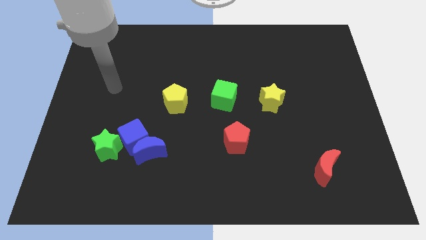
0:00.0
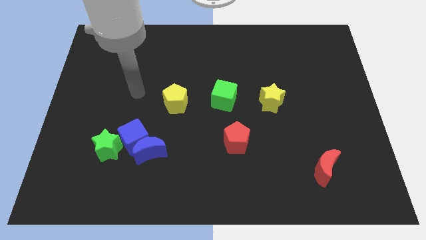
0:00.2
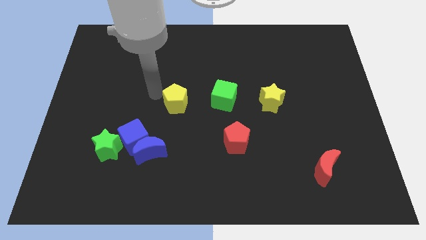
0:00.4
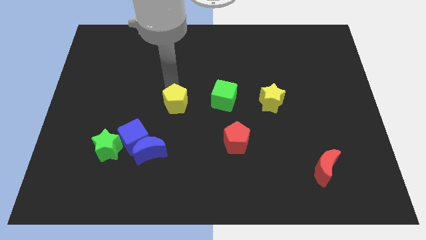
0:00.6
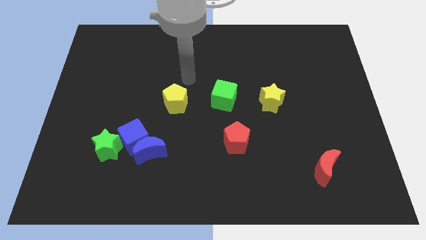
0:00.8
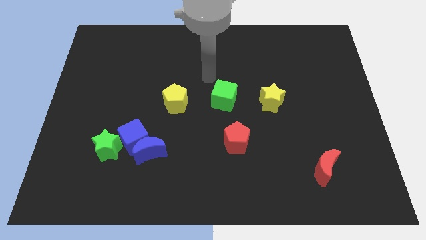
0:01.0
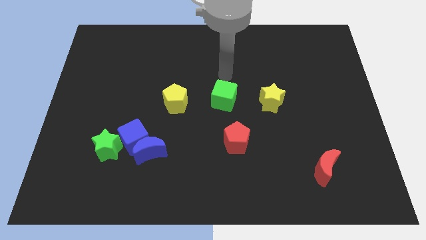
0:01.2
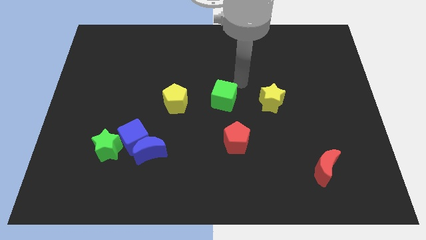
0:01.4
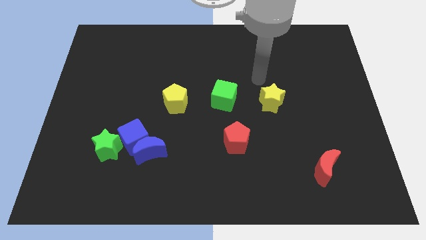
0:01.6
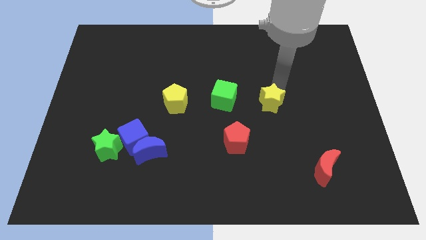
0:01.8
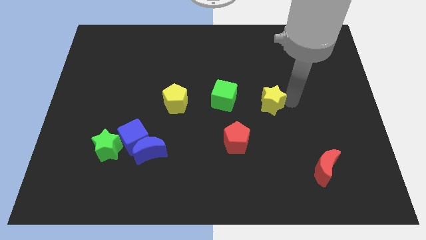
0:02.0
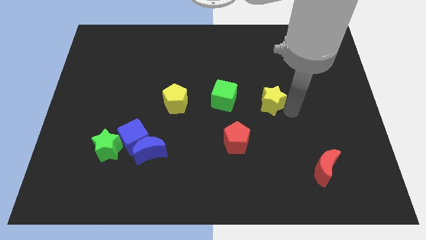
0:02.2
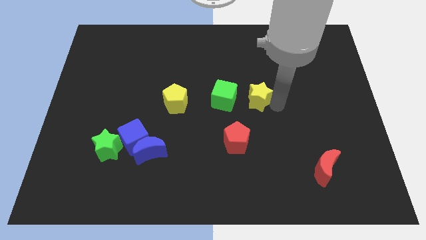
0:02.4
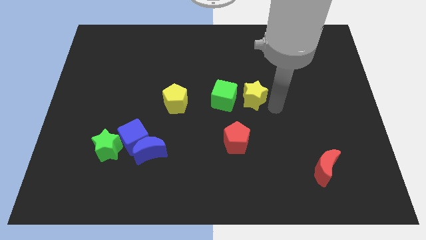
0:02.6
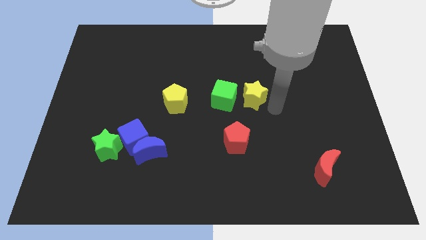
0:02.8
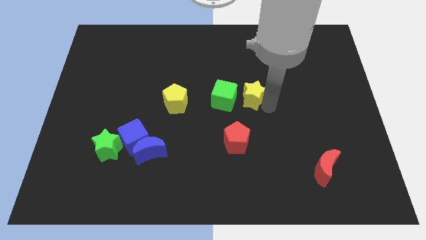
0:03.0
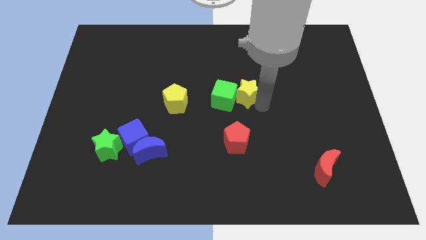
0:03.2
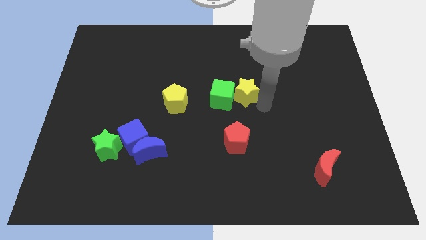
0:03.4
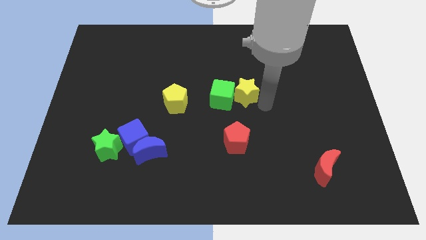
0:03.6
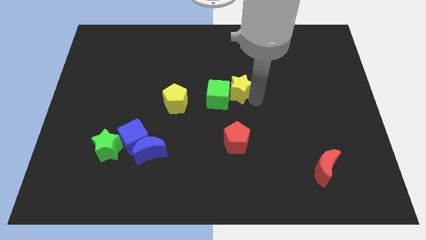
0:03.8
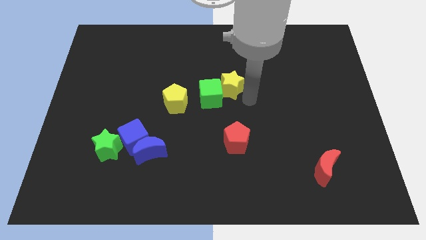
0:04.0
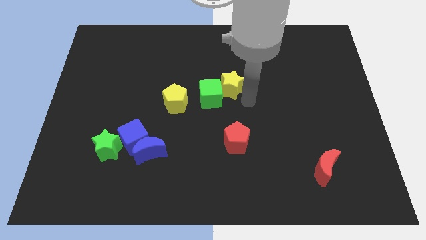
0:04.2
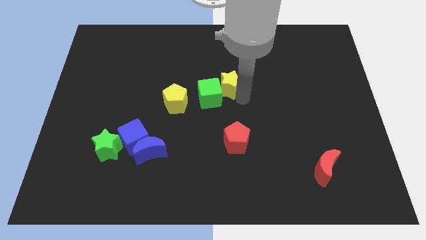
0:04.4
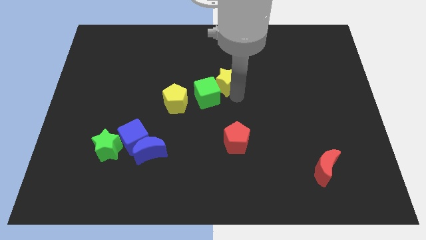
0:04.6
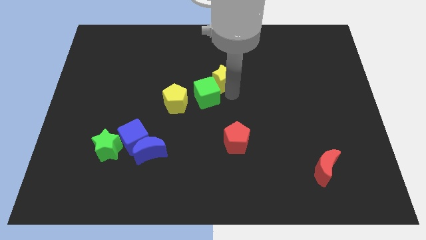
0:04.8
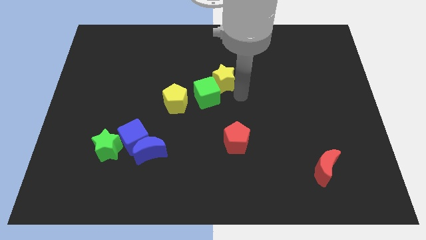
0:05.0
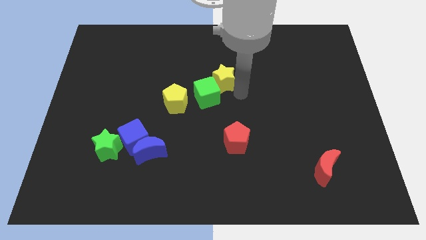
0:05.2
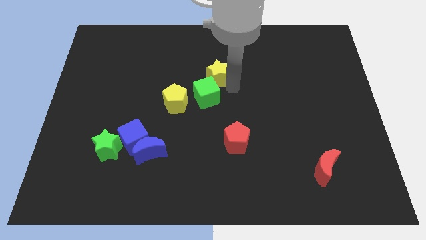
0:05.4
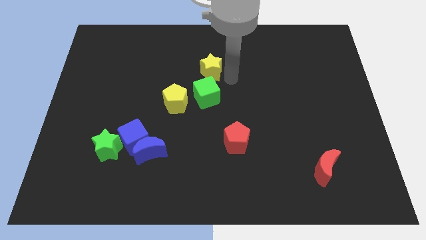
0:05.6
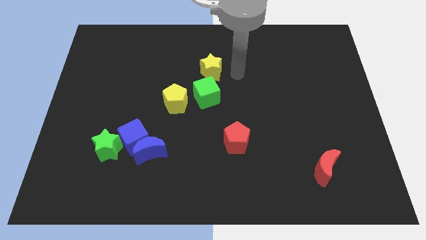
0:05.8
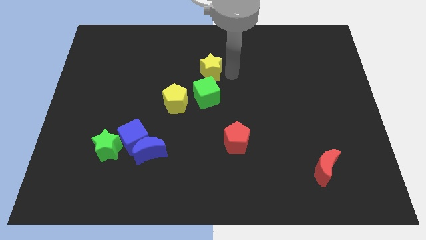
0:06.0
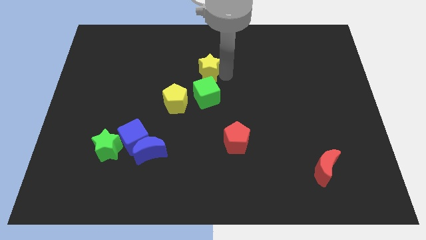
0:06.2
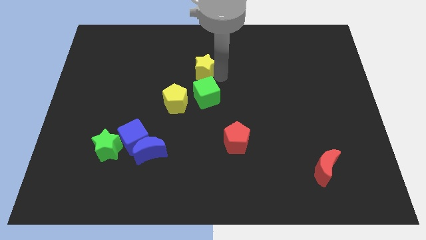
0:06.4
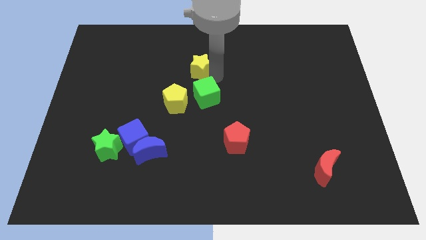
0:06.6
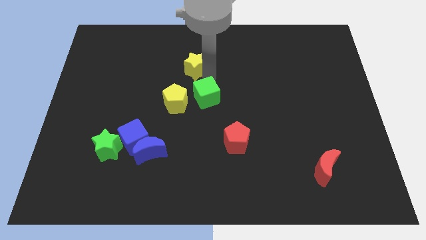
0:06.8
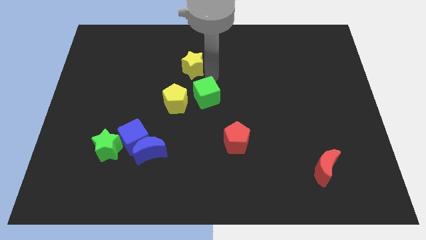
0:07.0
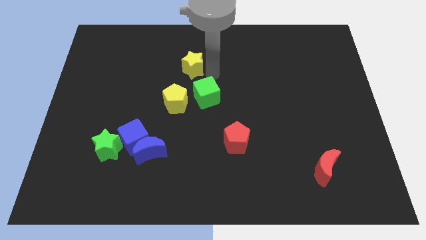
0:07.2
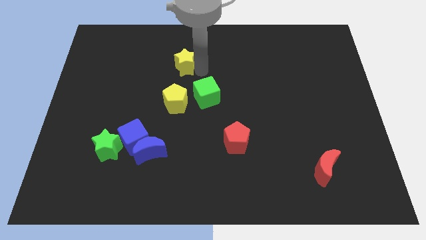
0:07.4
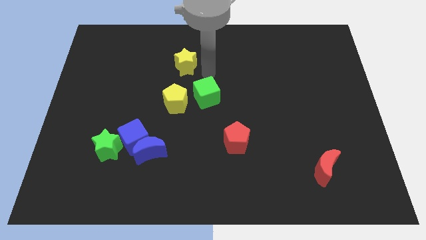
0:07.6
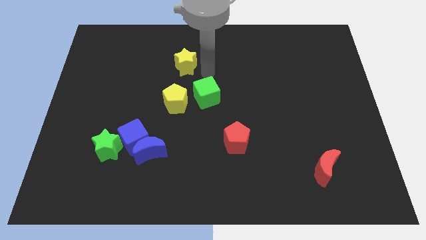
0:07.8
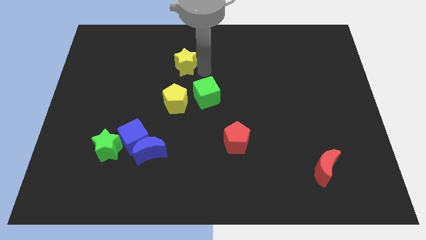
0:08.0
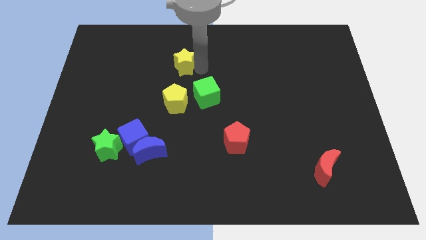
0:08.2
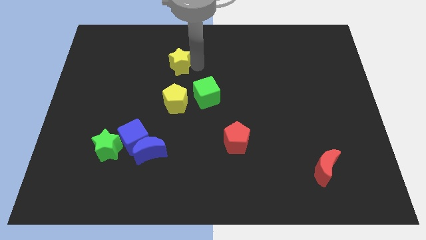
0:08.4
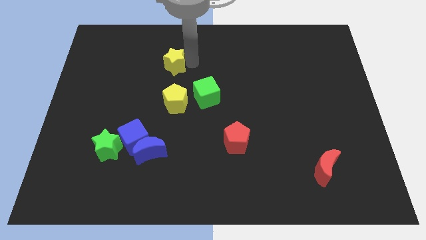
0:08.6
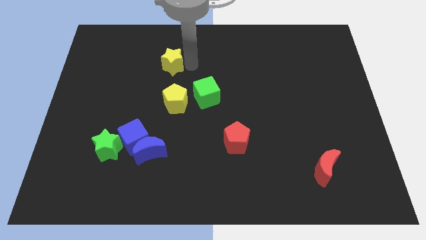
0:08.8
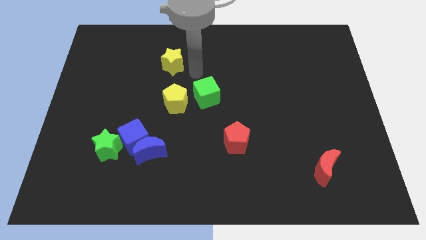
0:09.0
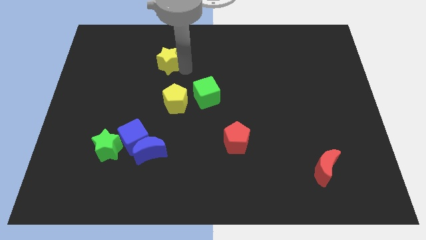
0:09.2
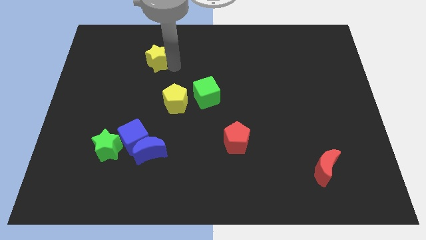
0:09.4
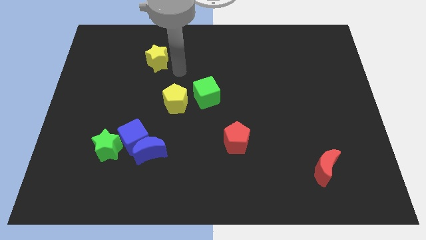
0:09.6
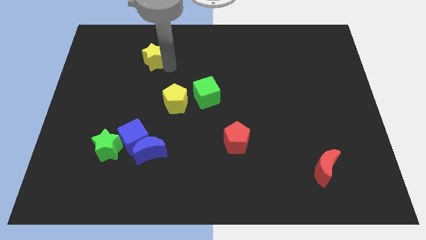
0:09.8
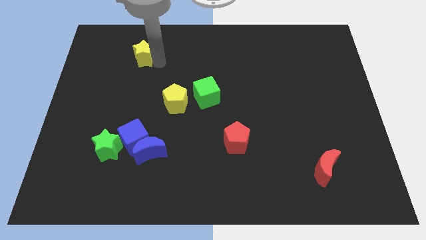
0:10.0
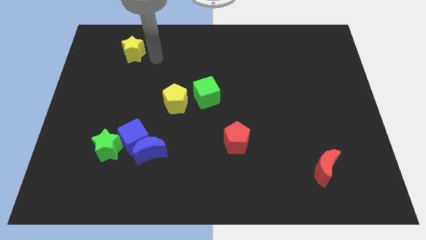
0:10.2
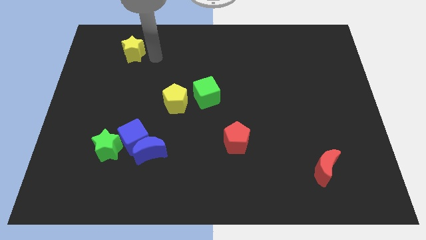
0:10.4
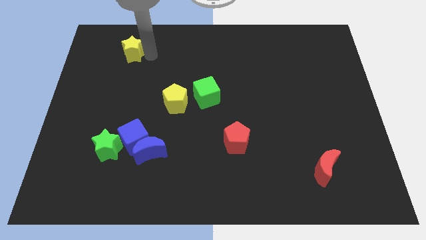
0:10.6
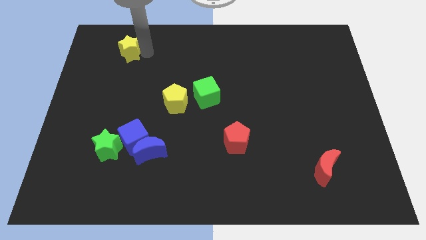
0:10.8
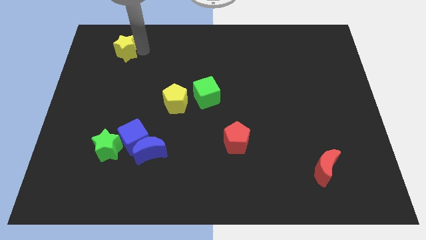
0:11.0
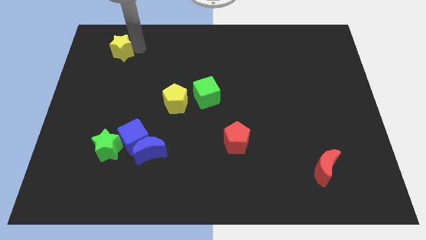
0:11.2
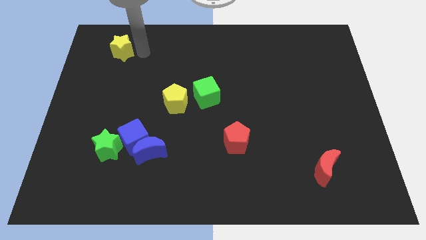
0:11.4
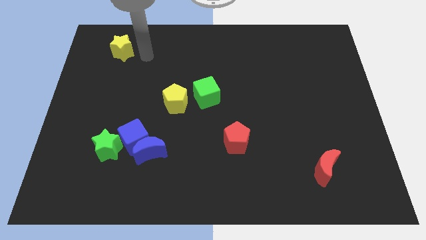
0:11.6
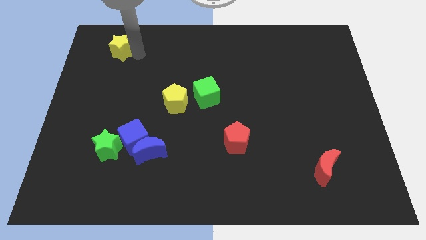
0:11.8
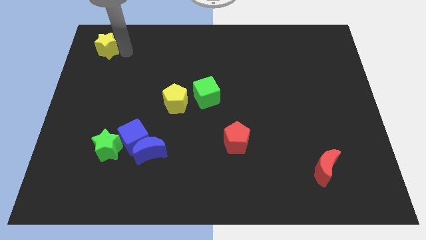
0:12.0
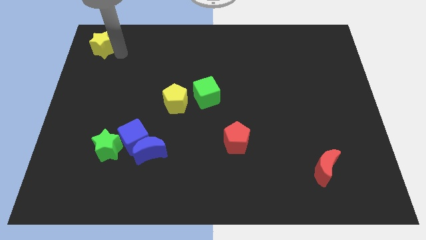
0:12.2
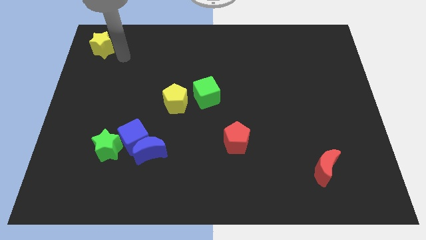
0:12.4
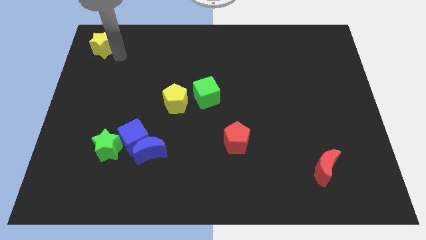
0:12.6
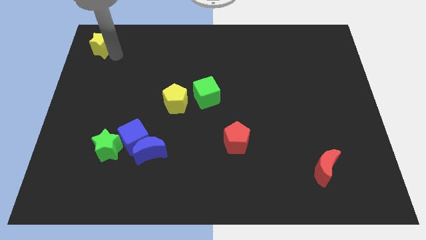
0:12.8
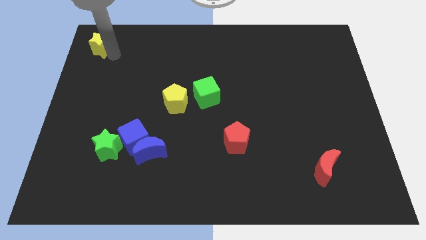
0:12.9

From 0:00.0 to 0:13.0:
put the yellow star to the top left of the board

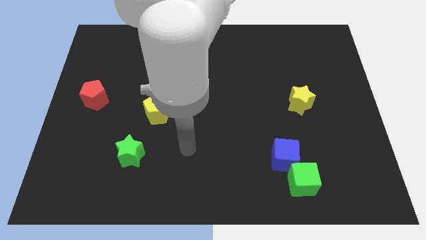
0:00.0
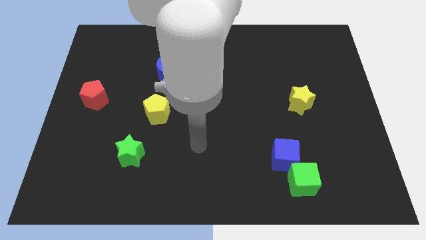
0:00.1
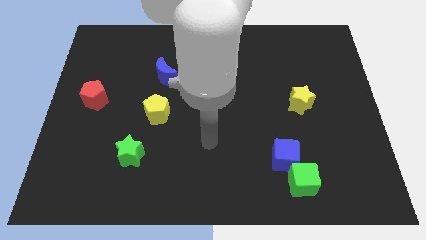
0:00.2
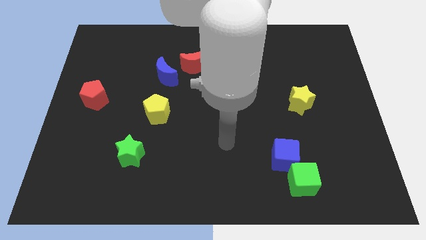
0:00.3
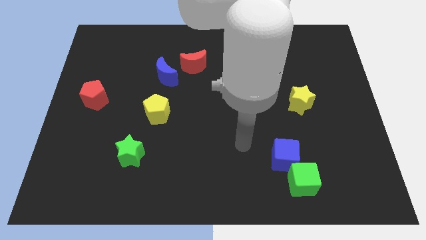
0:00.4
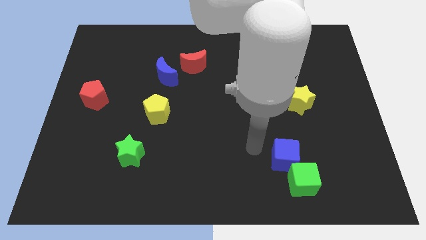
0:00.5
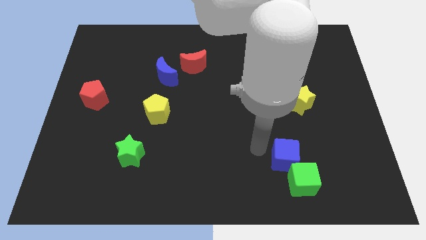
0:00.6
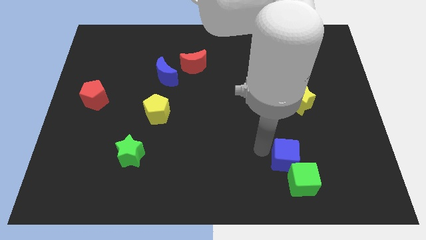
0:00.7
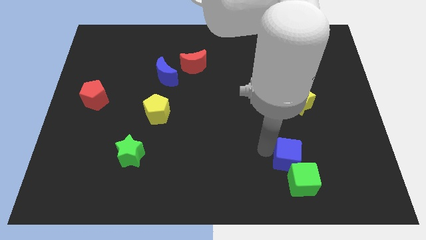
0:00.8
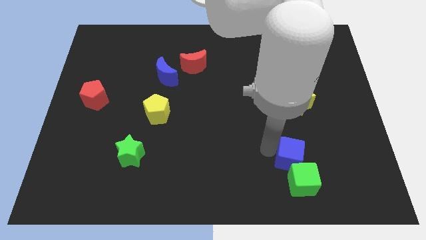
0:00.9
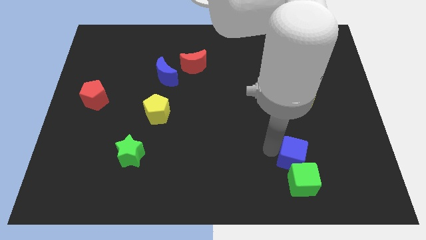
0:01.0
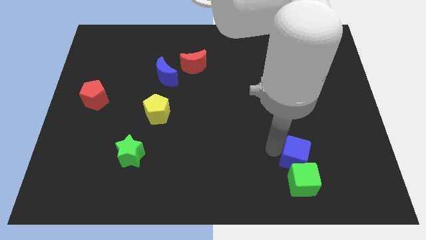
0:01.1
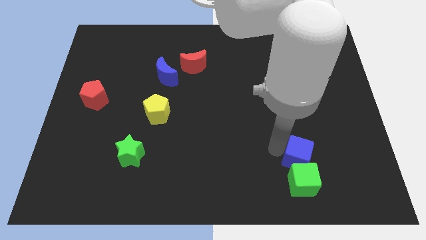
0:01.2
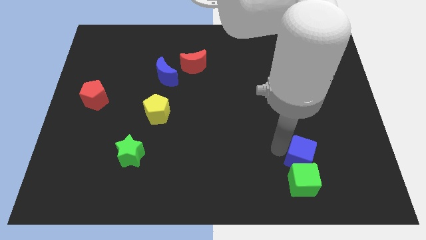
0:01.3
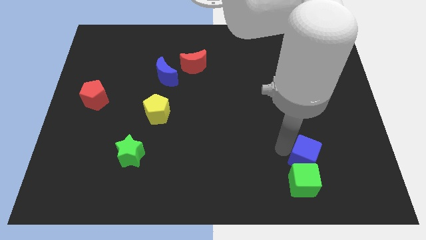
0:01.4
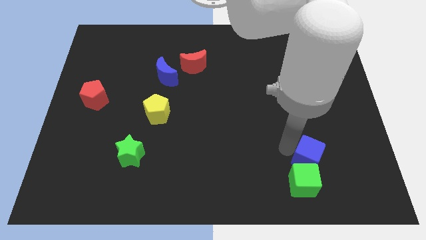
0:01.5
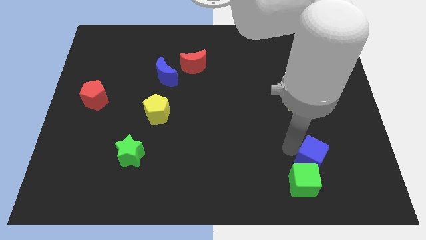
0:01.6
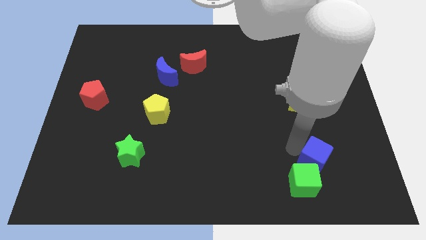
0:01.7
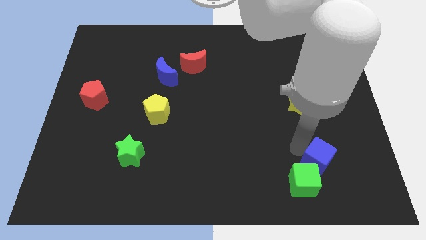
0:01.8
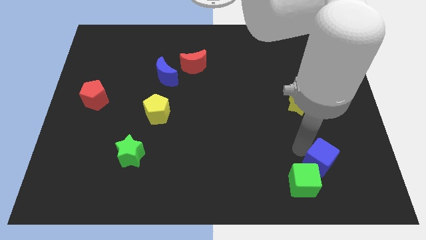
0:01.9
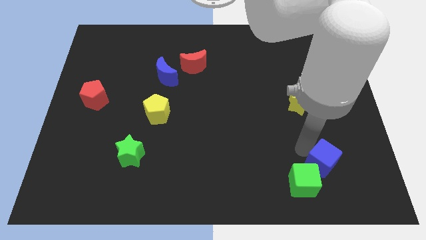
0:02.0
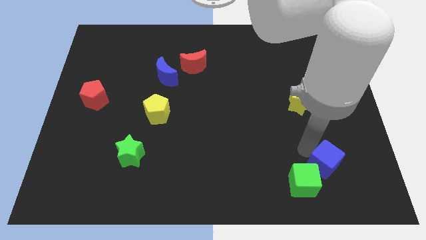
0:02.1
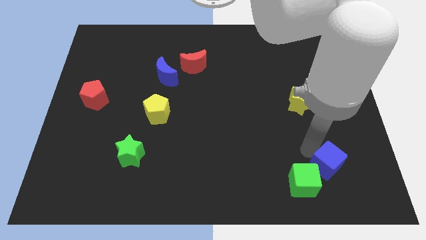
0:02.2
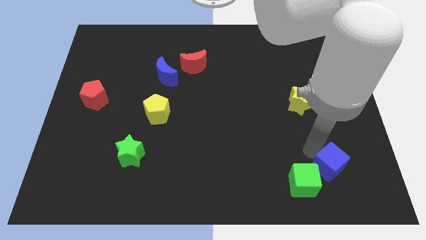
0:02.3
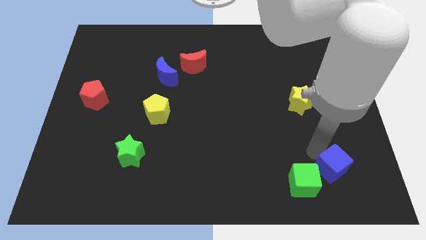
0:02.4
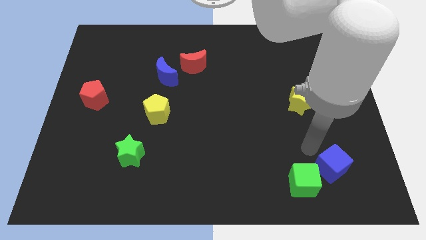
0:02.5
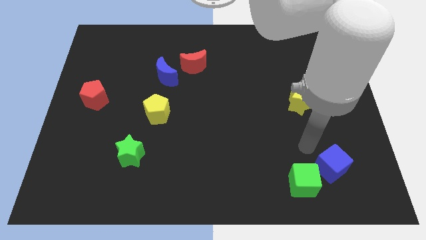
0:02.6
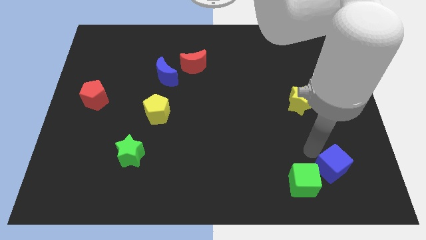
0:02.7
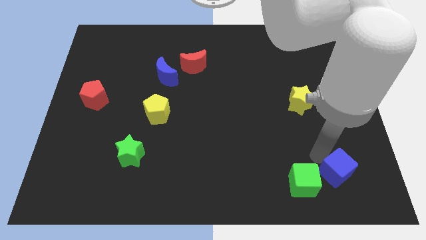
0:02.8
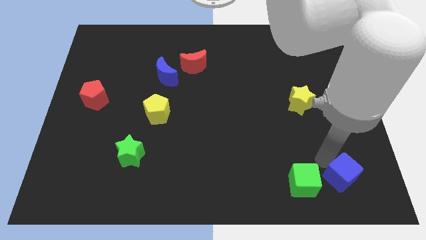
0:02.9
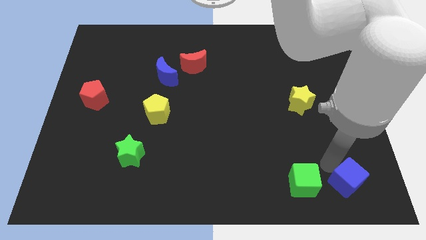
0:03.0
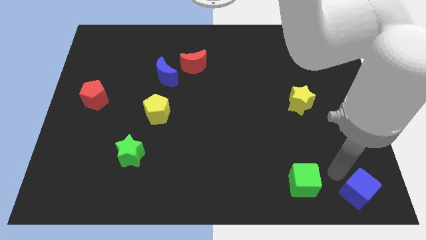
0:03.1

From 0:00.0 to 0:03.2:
move the blue cube to the lower right corner
